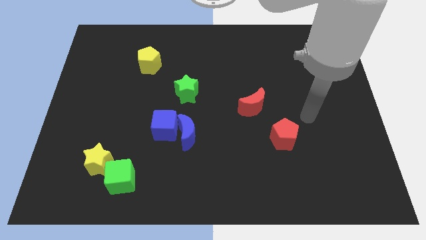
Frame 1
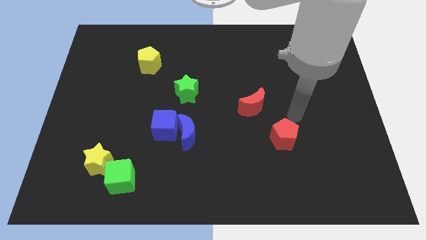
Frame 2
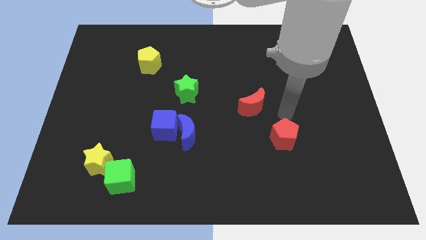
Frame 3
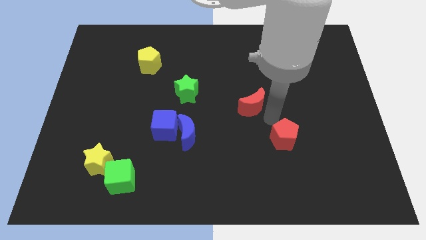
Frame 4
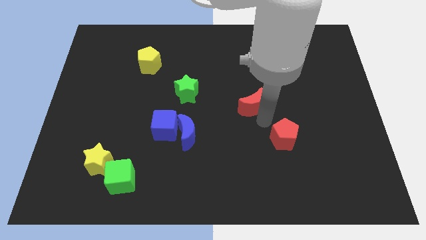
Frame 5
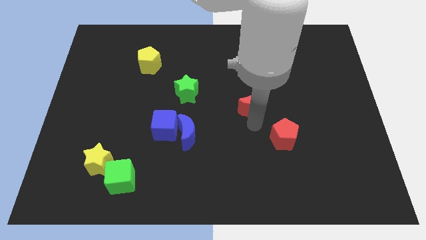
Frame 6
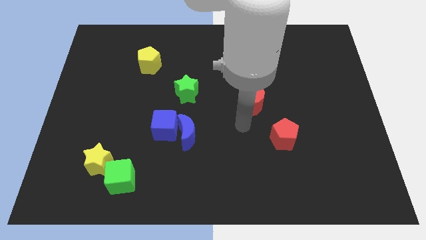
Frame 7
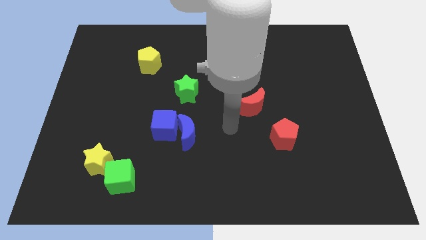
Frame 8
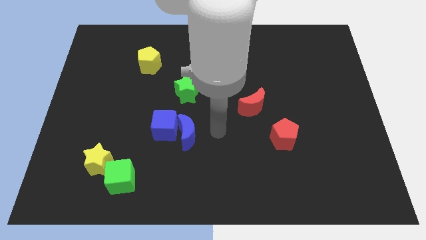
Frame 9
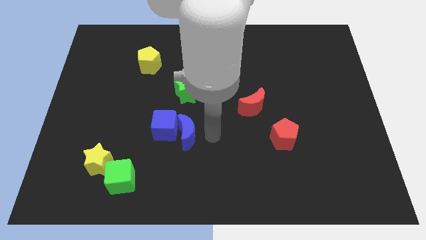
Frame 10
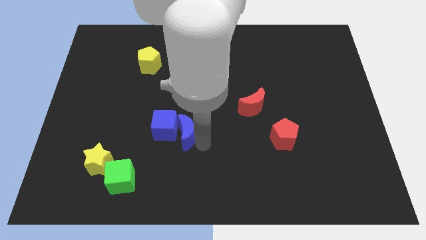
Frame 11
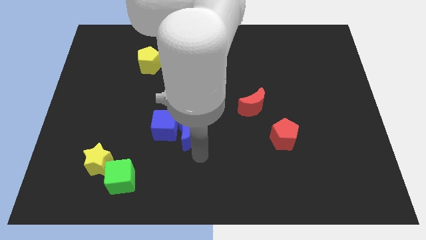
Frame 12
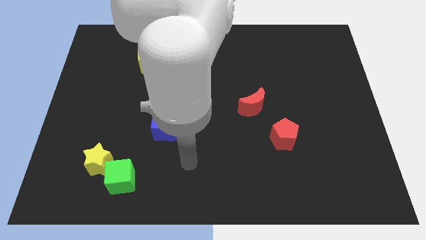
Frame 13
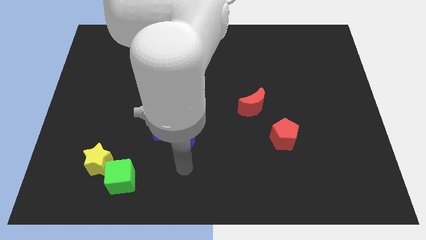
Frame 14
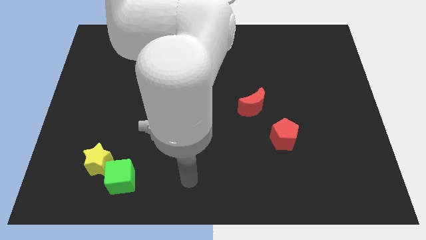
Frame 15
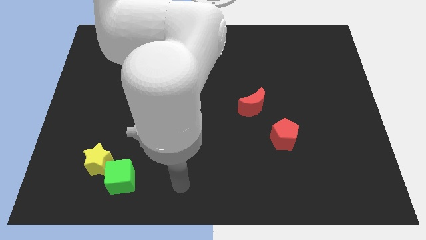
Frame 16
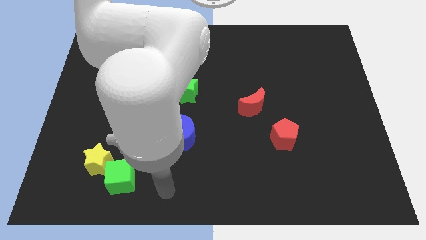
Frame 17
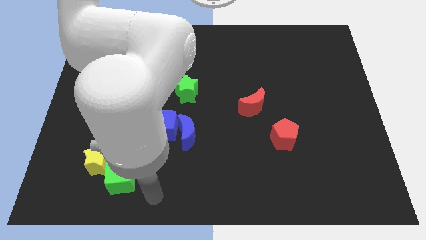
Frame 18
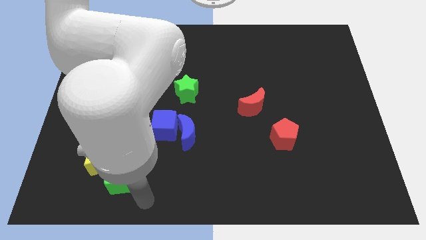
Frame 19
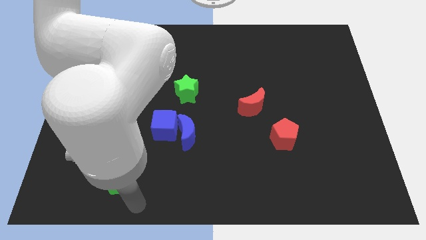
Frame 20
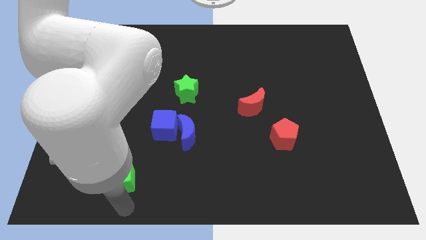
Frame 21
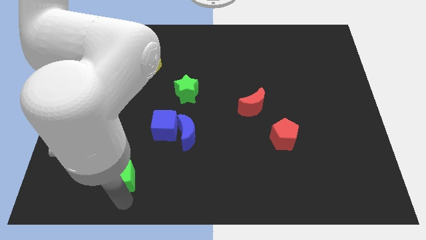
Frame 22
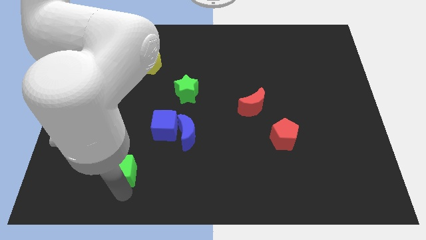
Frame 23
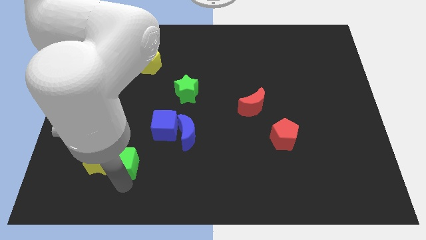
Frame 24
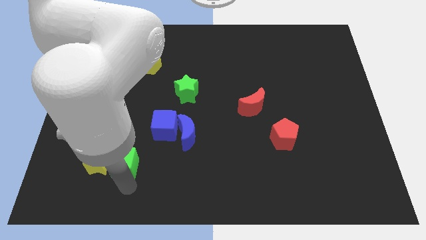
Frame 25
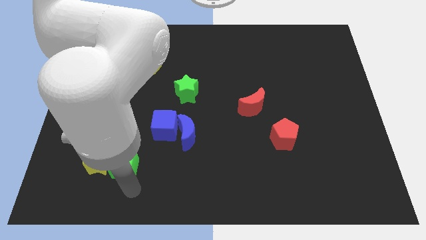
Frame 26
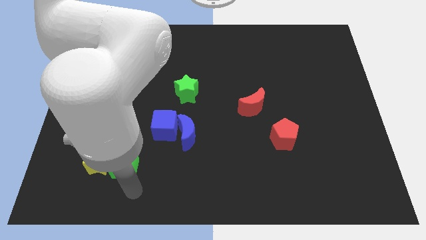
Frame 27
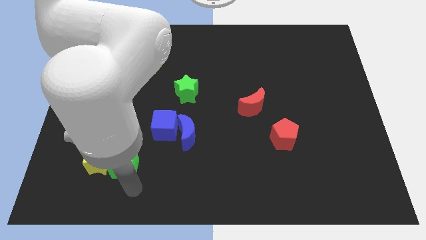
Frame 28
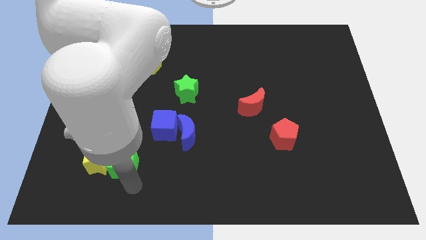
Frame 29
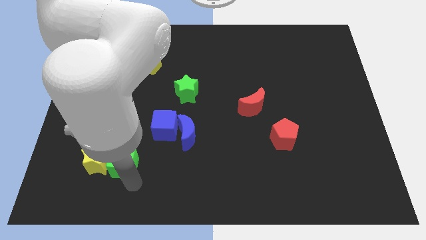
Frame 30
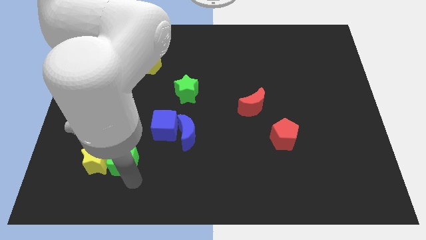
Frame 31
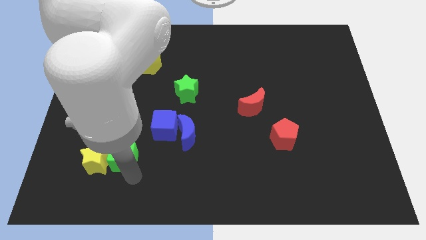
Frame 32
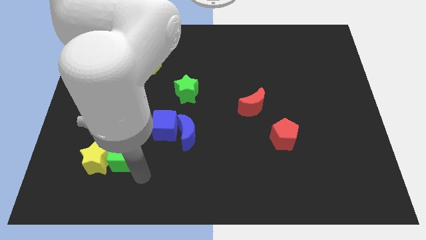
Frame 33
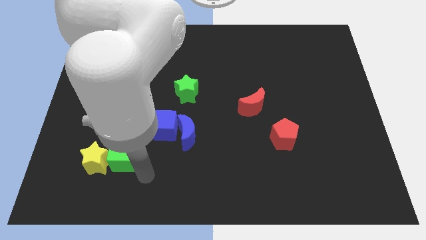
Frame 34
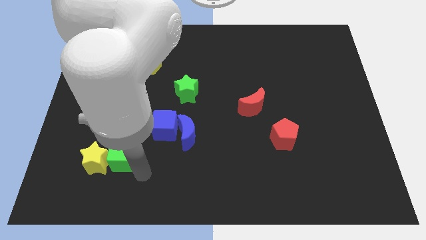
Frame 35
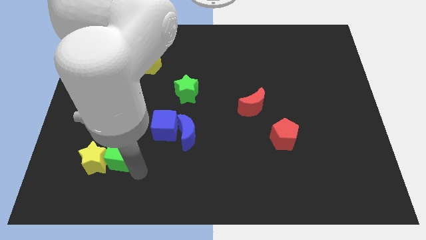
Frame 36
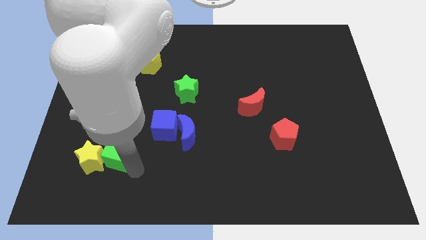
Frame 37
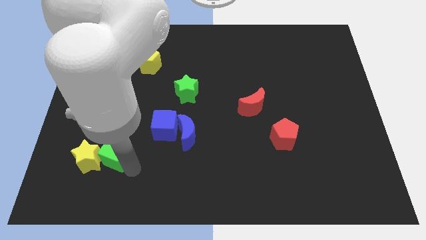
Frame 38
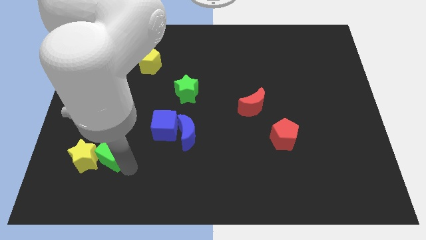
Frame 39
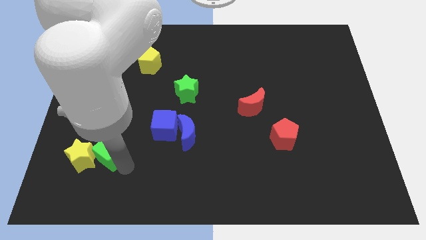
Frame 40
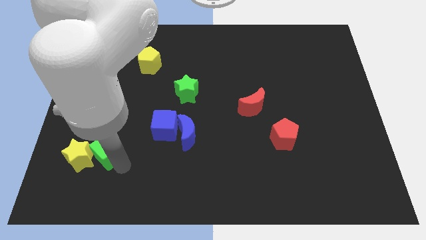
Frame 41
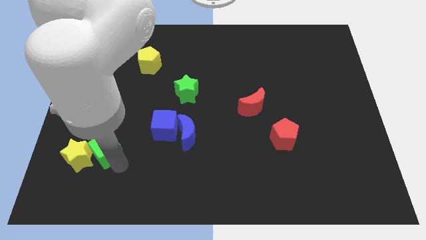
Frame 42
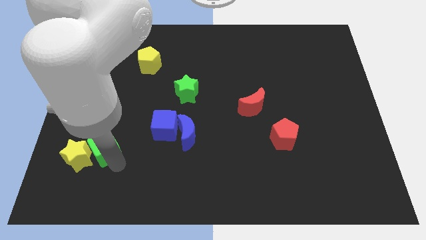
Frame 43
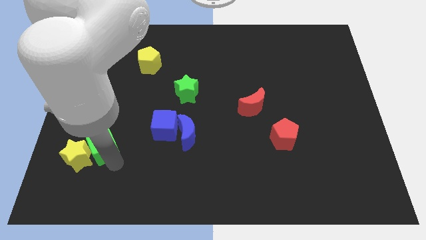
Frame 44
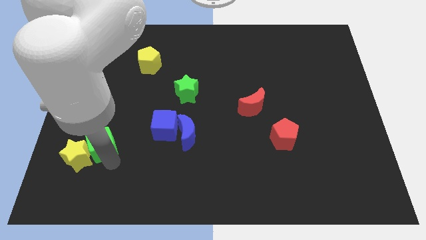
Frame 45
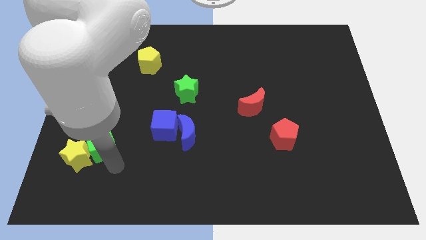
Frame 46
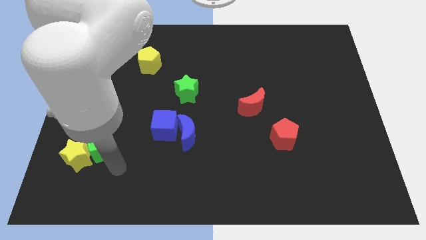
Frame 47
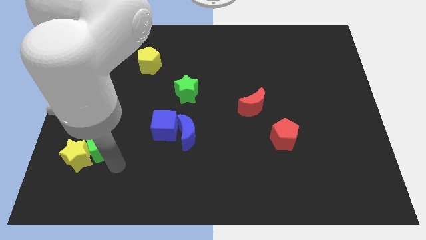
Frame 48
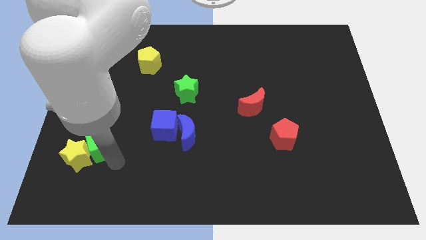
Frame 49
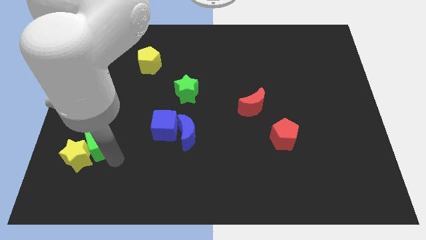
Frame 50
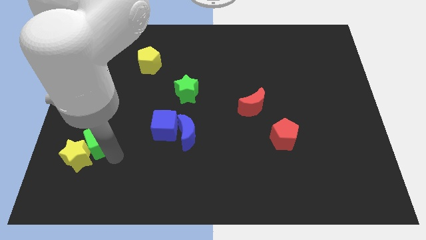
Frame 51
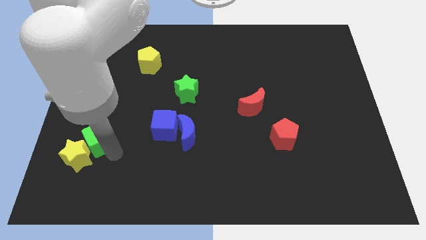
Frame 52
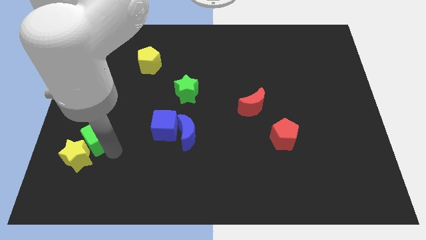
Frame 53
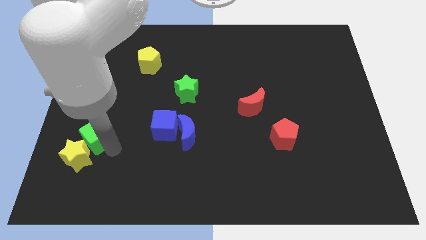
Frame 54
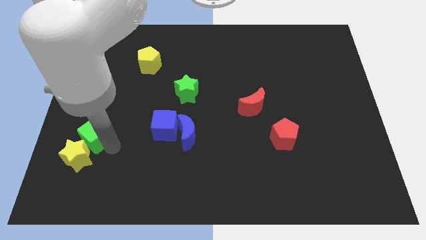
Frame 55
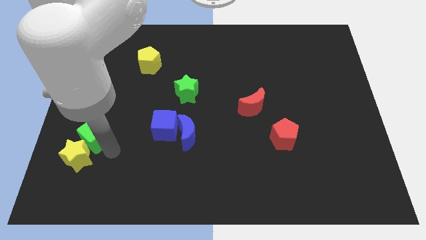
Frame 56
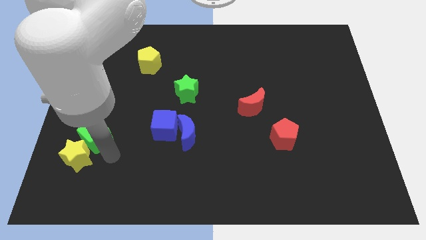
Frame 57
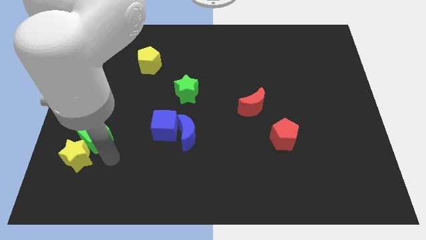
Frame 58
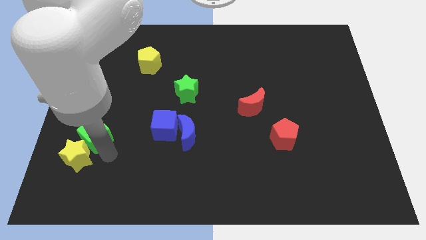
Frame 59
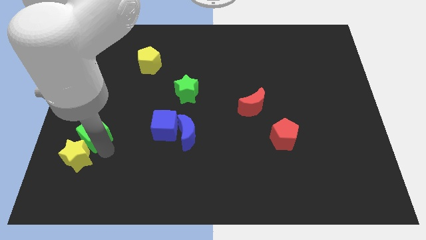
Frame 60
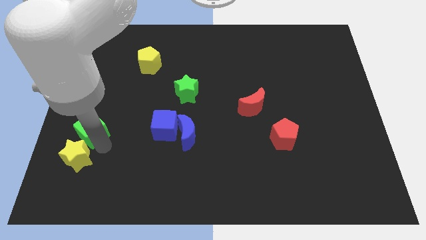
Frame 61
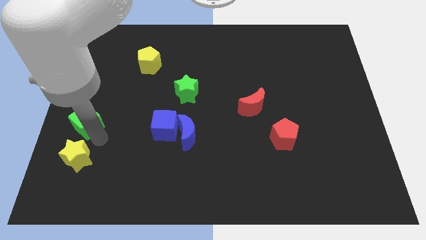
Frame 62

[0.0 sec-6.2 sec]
move the green cube to the center left
